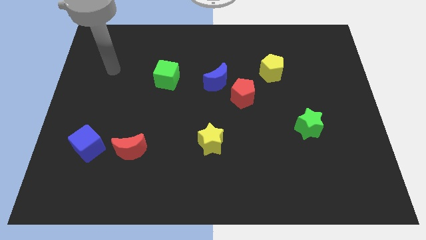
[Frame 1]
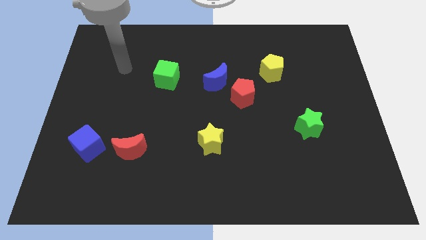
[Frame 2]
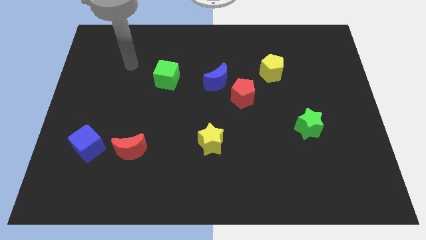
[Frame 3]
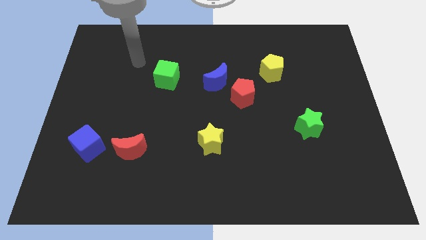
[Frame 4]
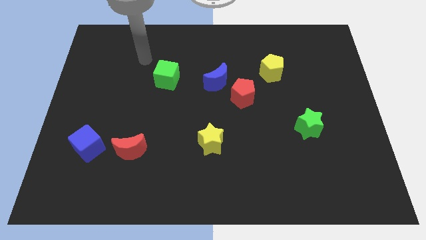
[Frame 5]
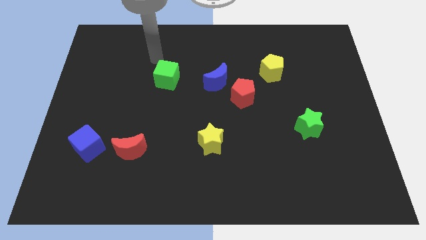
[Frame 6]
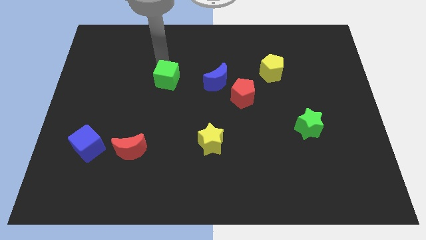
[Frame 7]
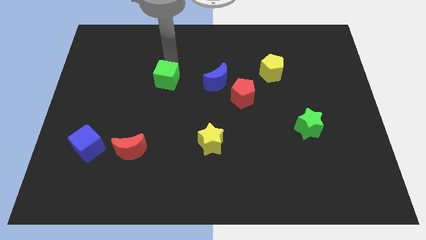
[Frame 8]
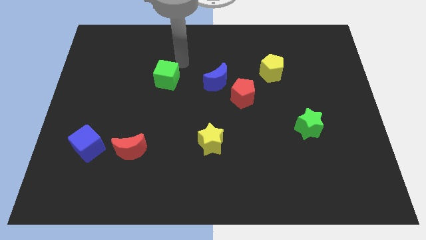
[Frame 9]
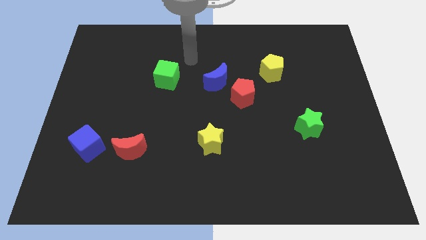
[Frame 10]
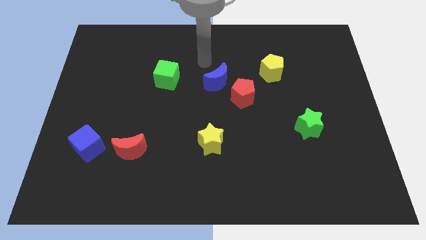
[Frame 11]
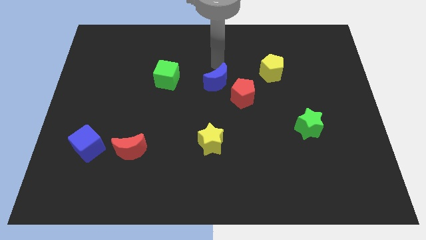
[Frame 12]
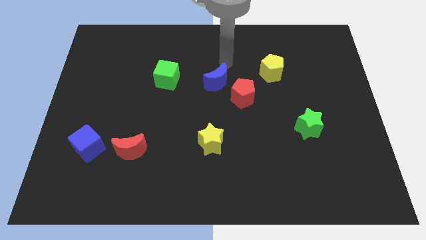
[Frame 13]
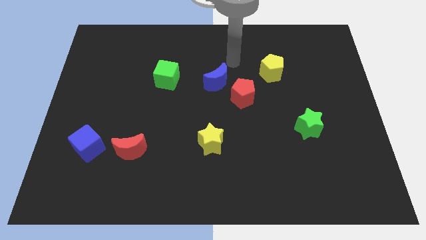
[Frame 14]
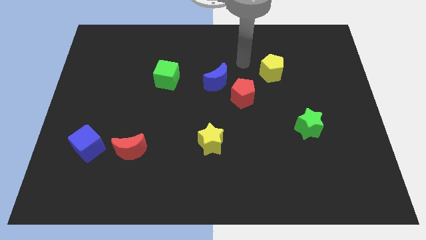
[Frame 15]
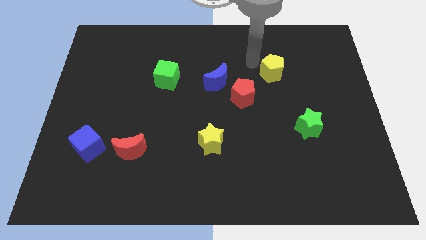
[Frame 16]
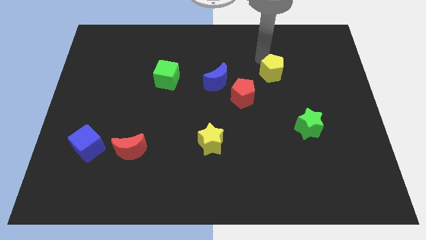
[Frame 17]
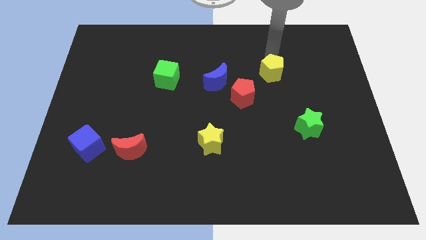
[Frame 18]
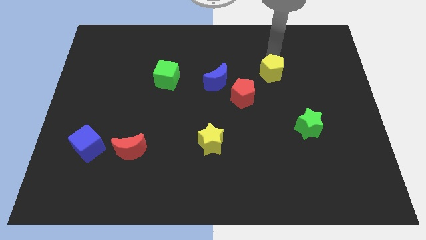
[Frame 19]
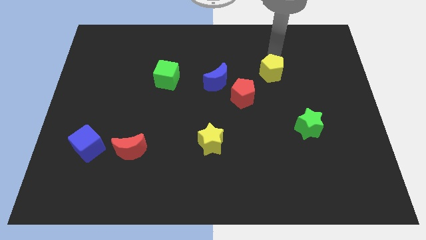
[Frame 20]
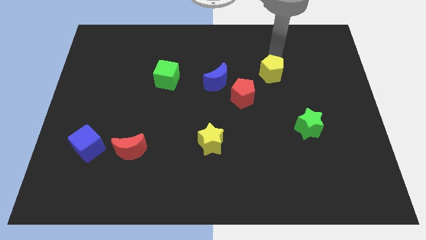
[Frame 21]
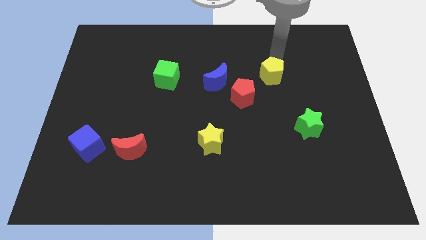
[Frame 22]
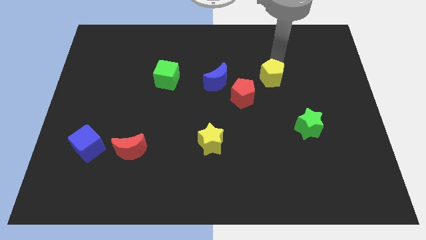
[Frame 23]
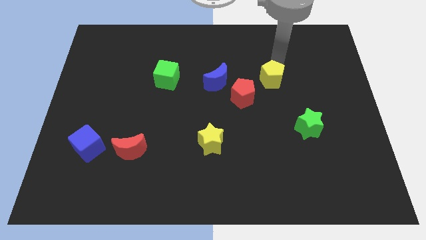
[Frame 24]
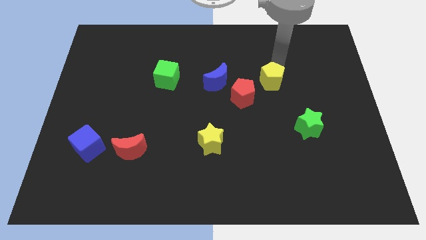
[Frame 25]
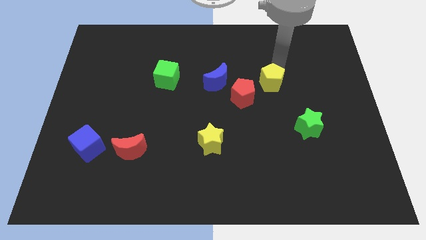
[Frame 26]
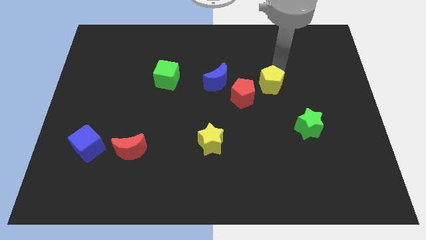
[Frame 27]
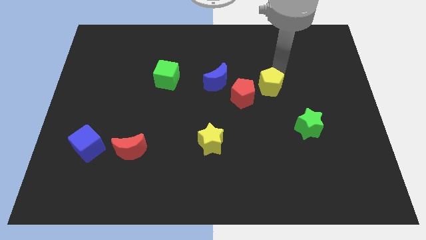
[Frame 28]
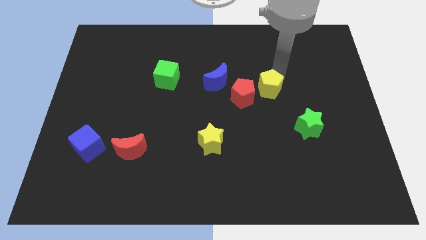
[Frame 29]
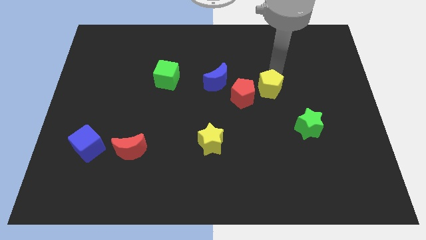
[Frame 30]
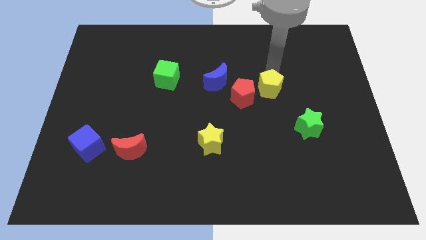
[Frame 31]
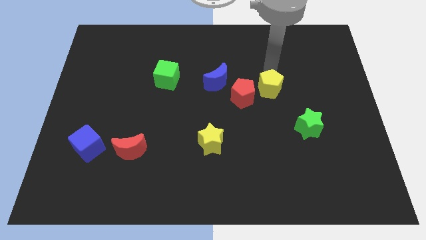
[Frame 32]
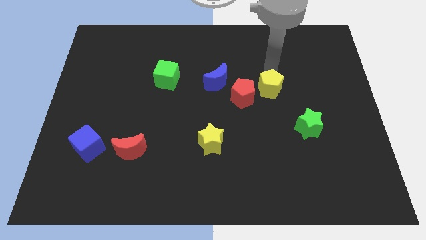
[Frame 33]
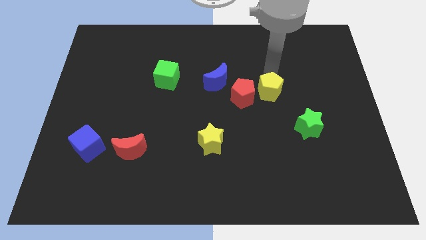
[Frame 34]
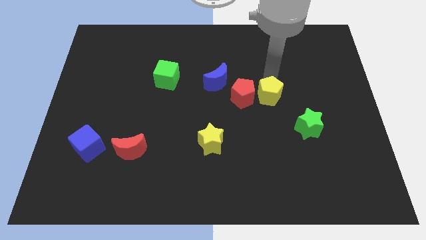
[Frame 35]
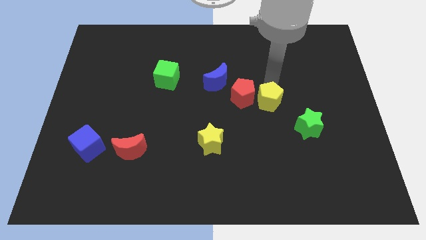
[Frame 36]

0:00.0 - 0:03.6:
slightly push the yellow pentagon diagonally down and to the left

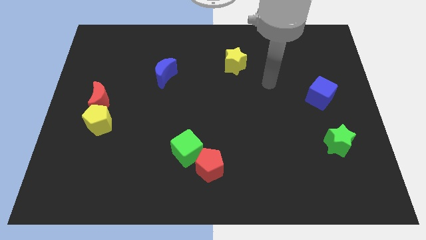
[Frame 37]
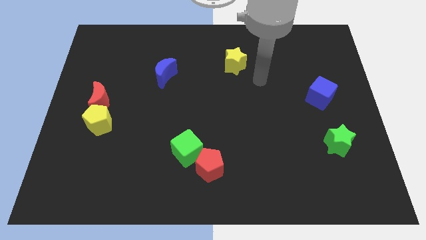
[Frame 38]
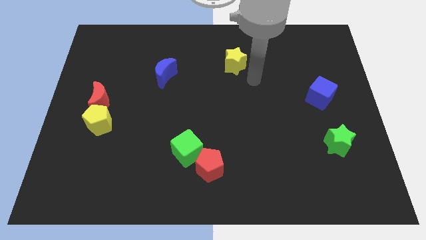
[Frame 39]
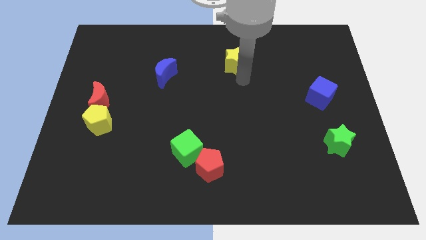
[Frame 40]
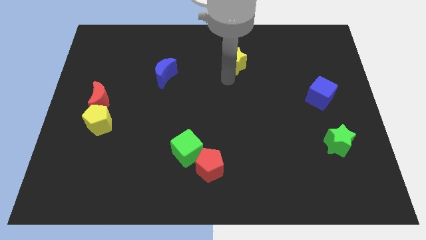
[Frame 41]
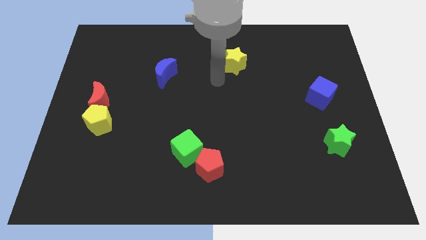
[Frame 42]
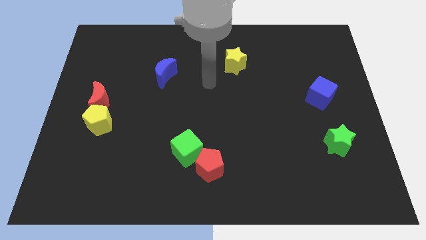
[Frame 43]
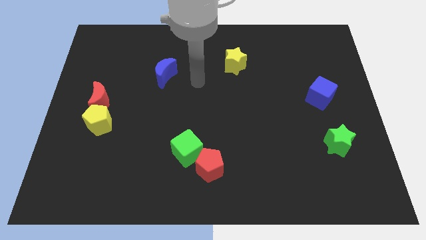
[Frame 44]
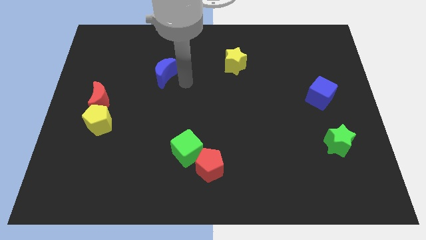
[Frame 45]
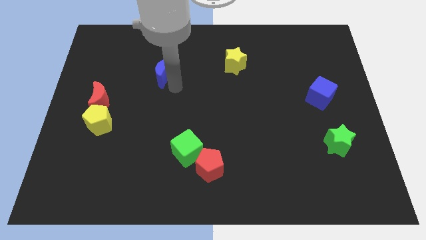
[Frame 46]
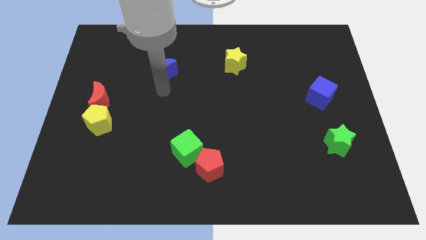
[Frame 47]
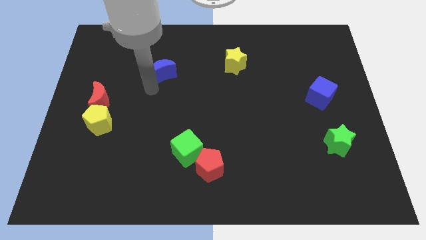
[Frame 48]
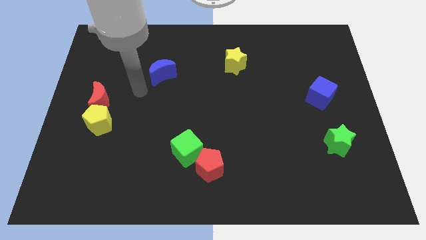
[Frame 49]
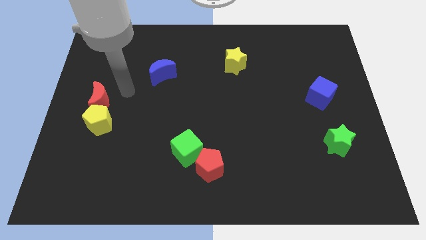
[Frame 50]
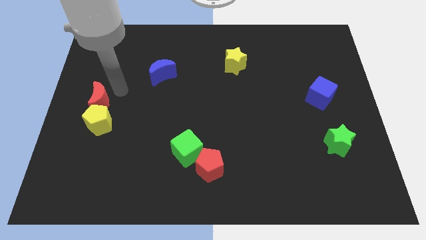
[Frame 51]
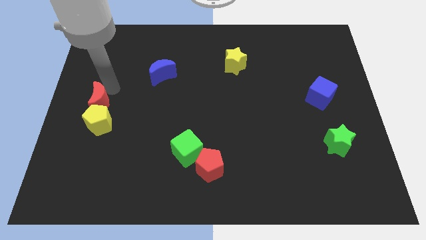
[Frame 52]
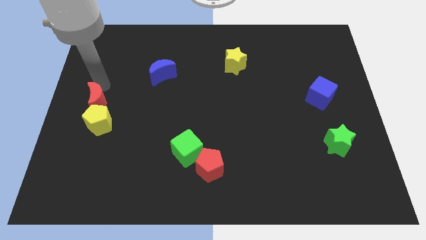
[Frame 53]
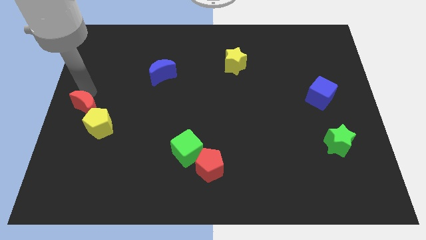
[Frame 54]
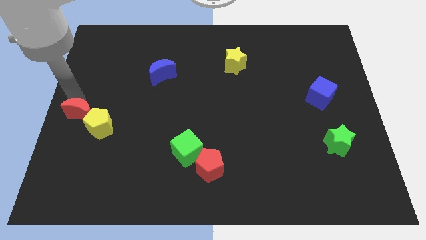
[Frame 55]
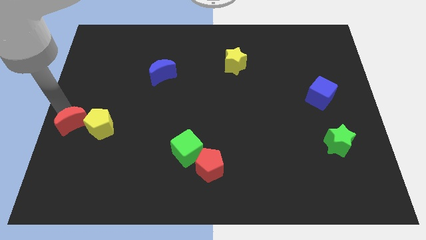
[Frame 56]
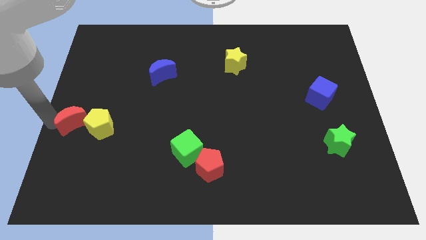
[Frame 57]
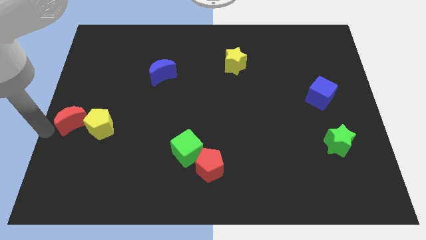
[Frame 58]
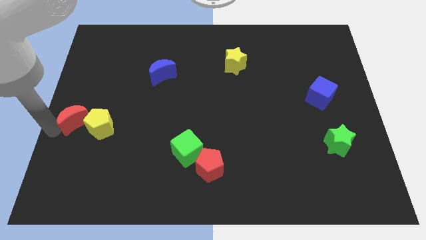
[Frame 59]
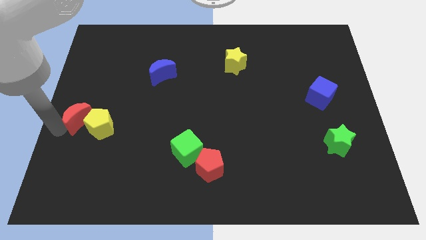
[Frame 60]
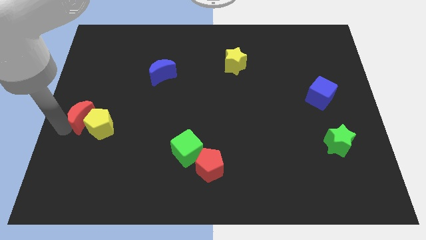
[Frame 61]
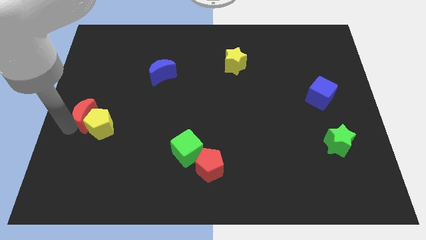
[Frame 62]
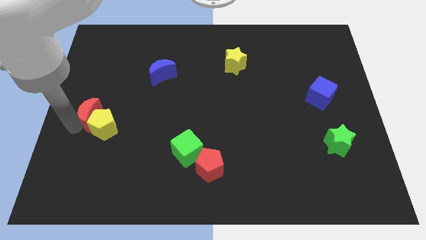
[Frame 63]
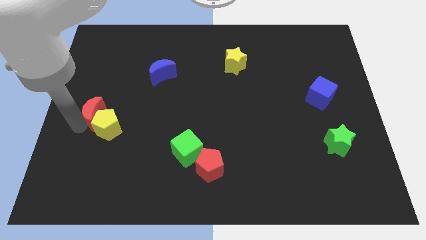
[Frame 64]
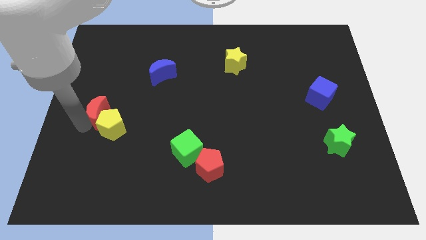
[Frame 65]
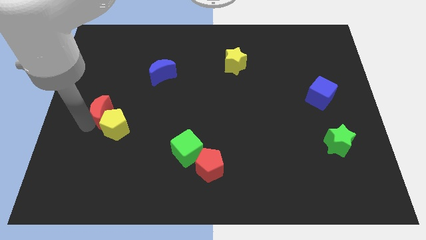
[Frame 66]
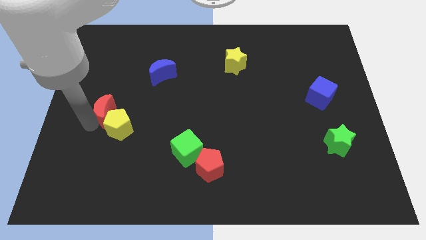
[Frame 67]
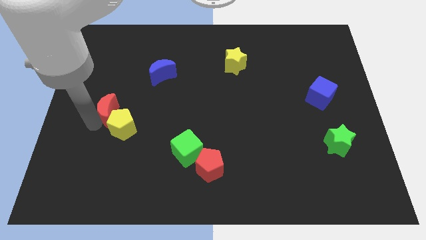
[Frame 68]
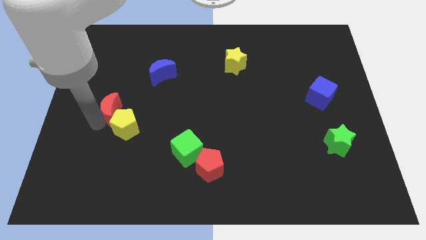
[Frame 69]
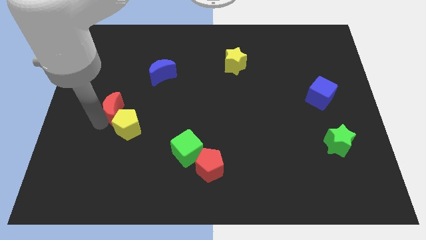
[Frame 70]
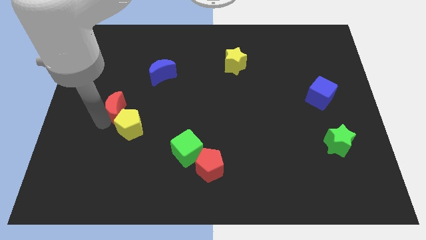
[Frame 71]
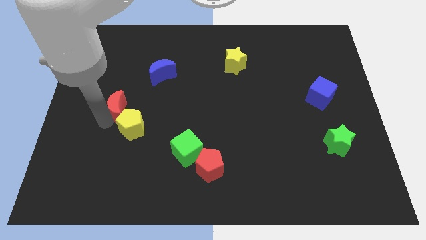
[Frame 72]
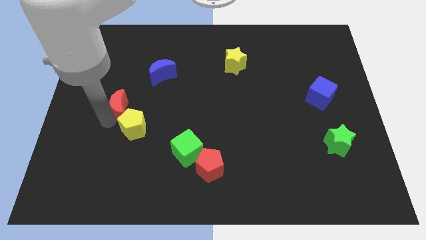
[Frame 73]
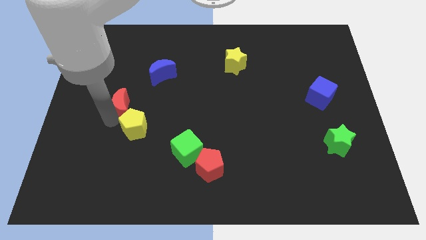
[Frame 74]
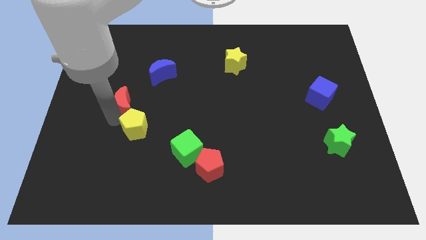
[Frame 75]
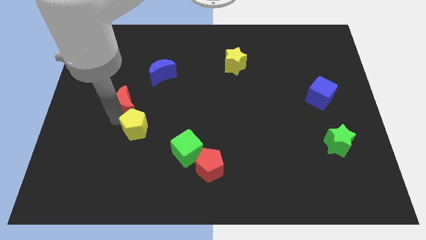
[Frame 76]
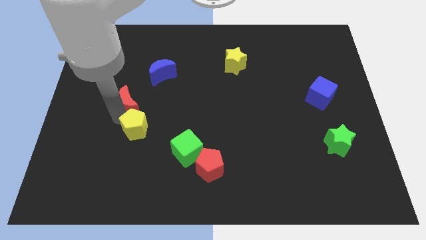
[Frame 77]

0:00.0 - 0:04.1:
slightly slide the red moon right
